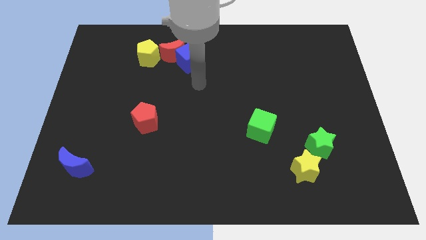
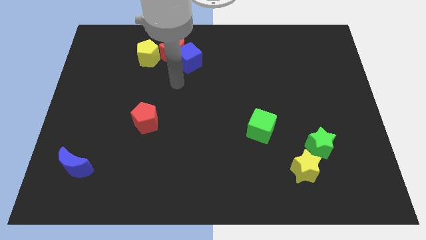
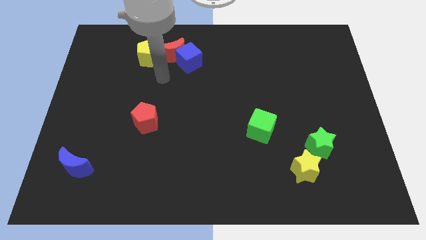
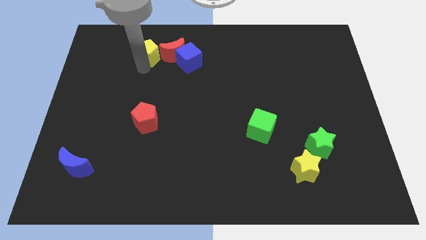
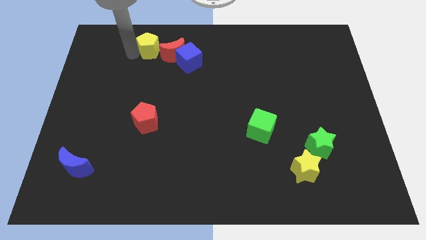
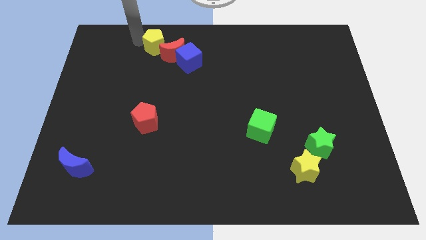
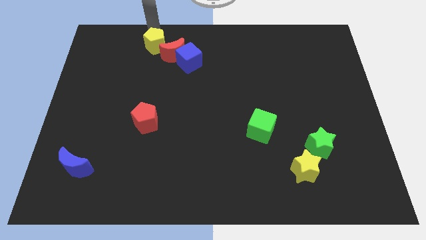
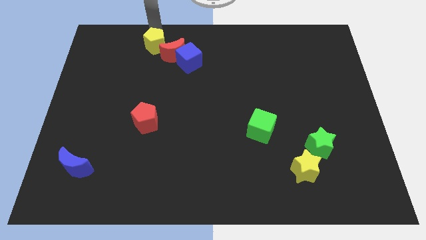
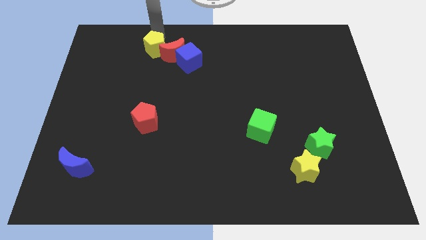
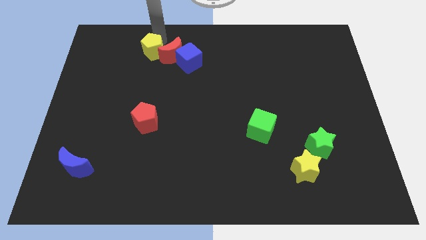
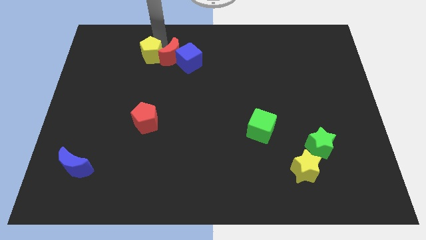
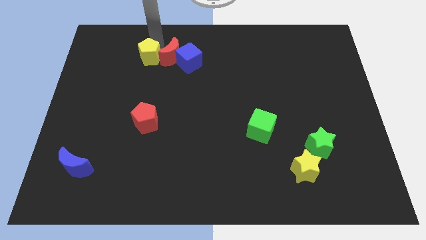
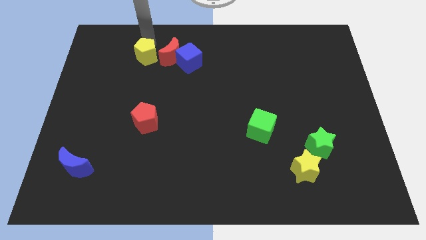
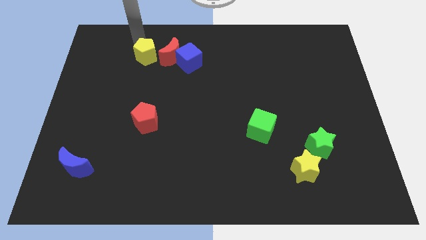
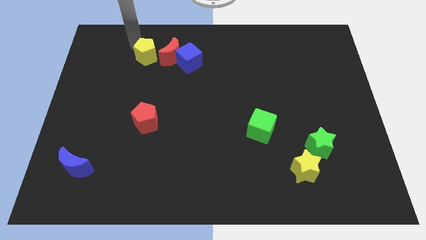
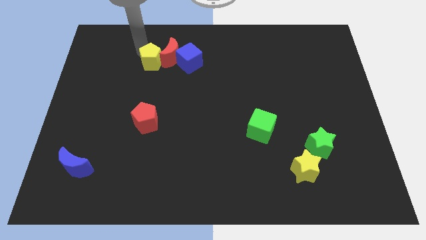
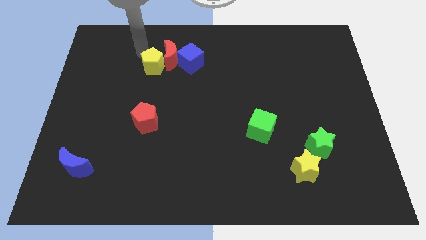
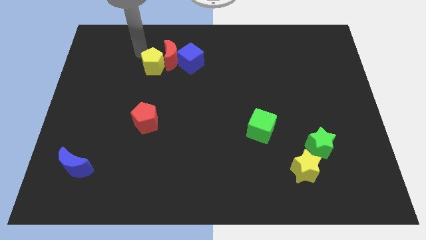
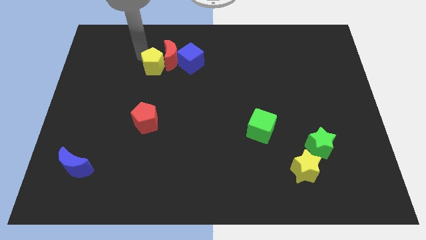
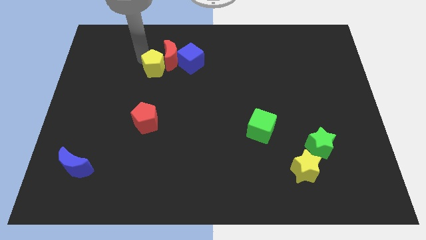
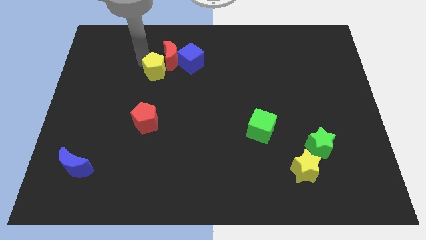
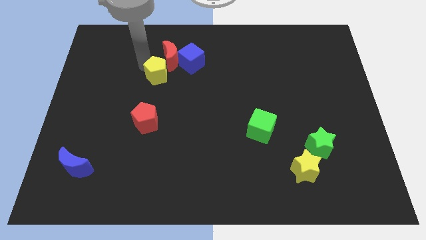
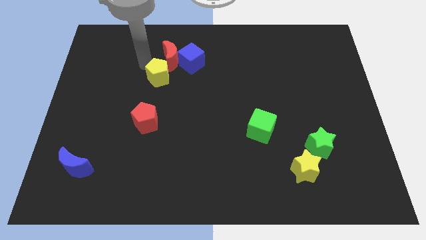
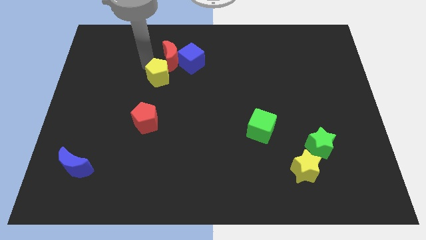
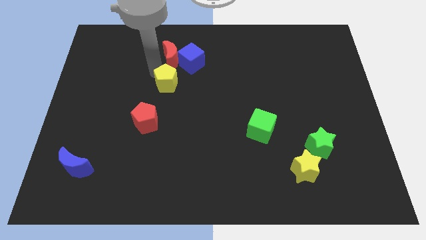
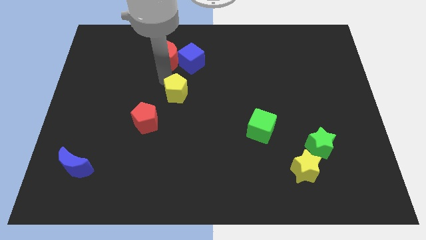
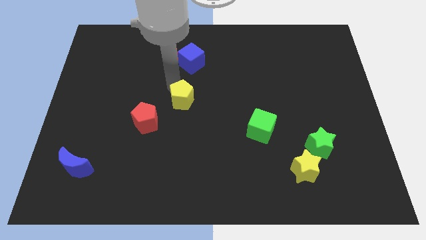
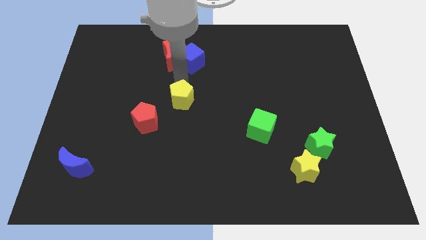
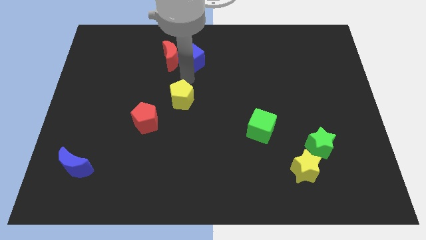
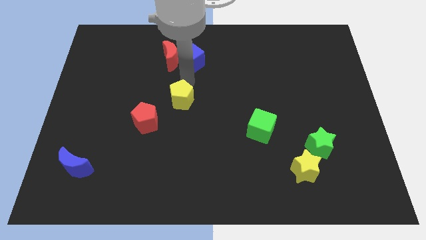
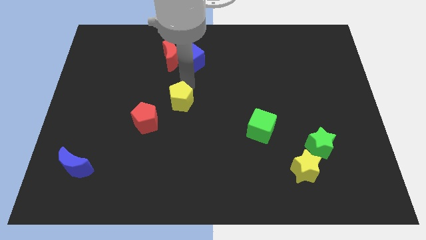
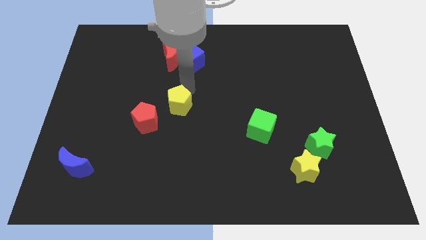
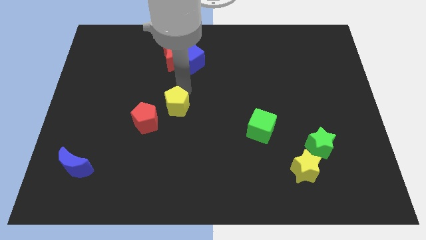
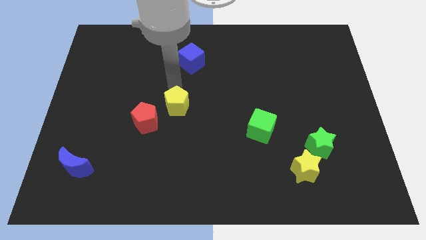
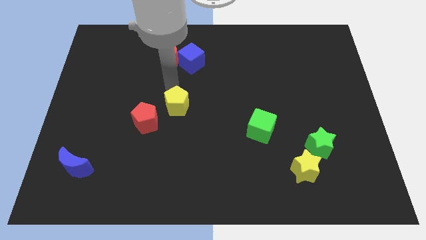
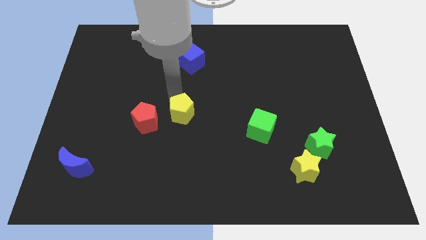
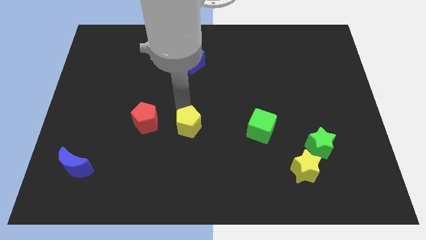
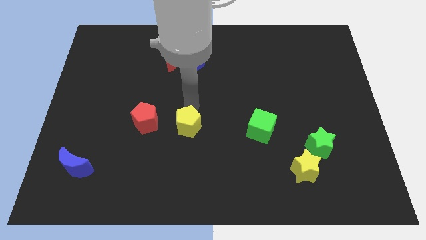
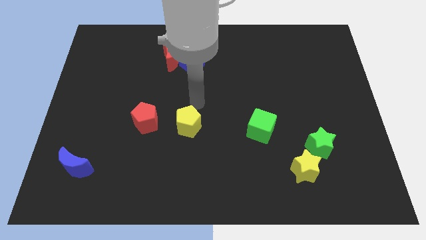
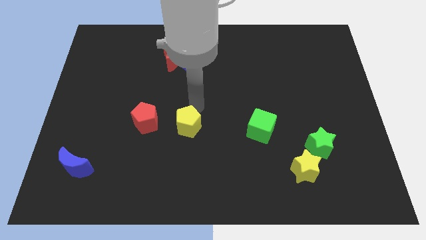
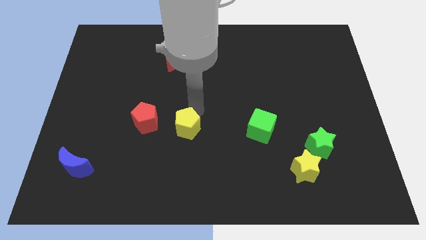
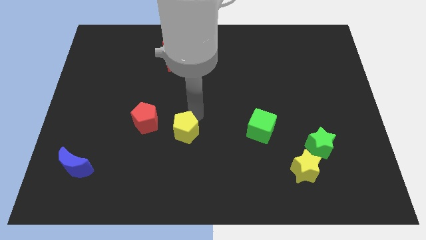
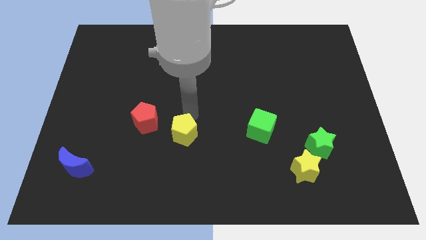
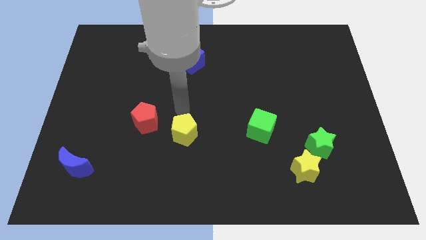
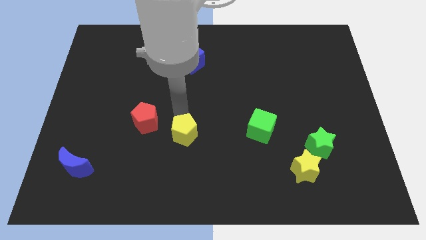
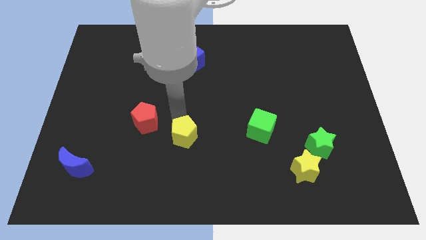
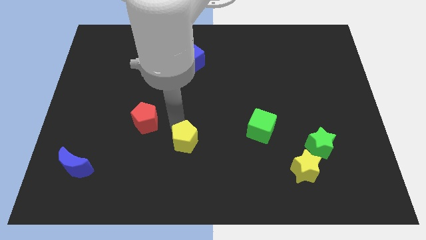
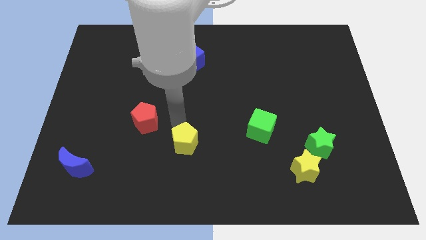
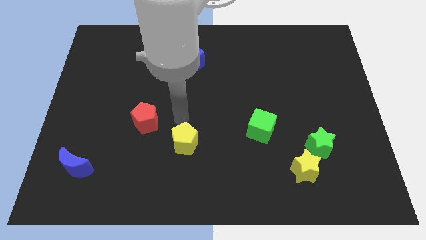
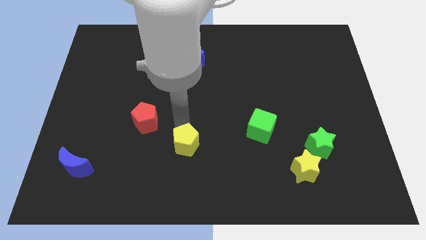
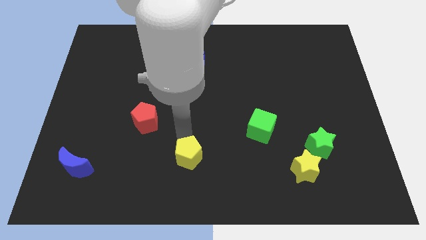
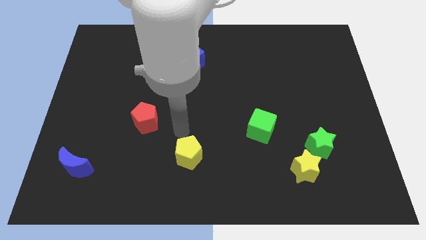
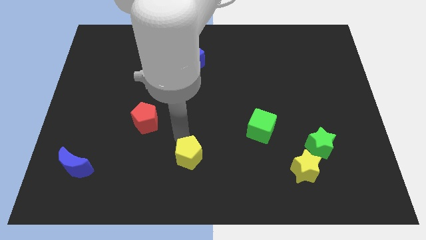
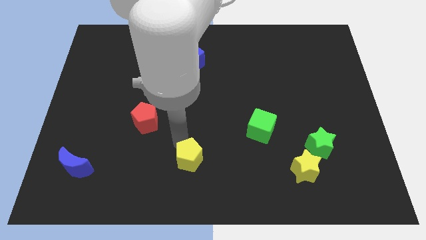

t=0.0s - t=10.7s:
slide the yellow pentagon to the bottom

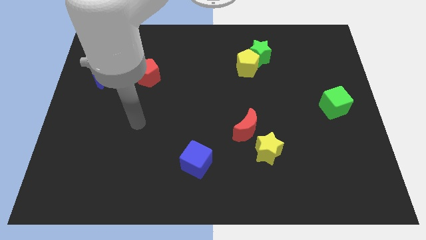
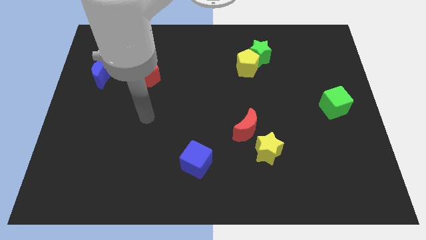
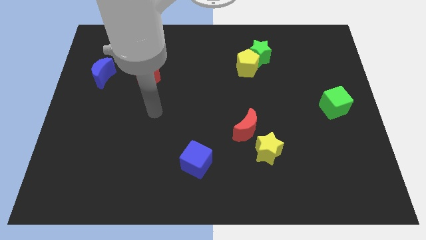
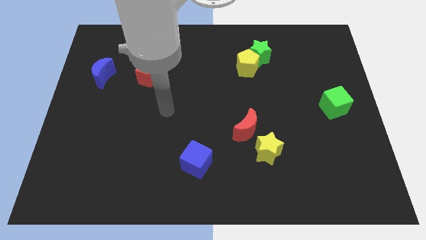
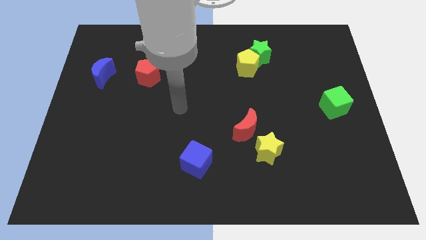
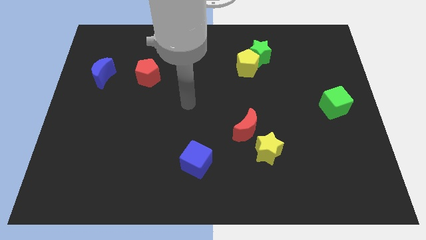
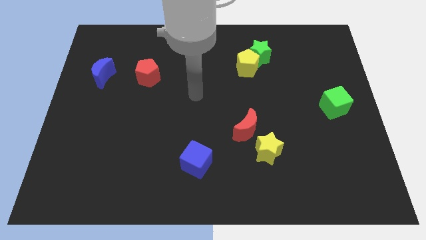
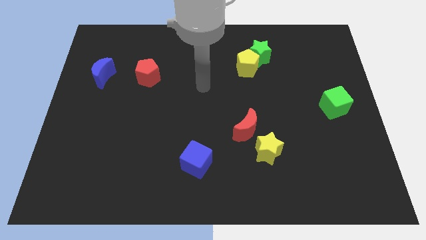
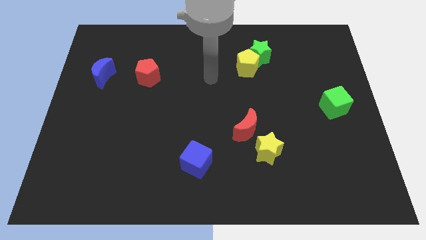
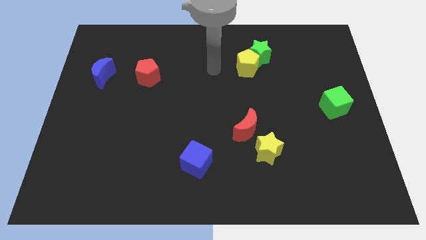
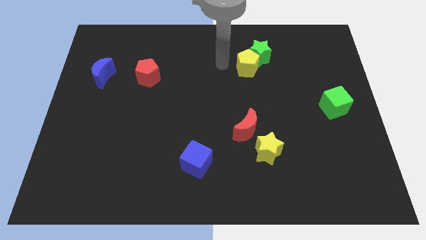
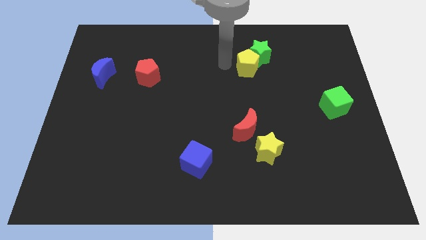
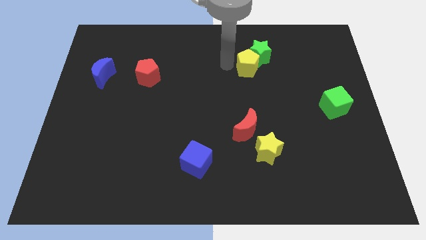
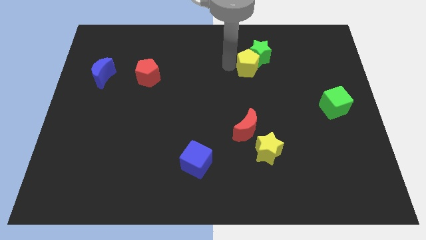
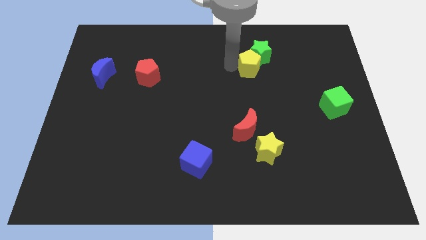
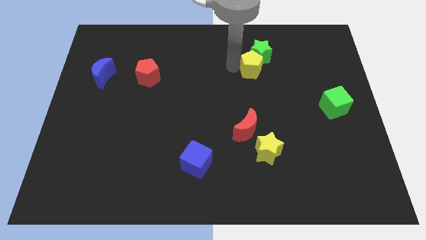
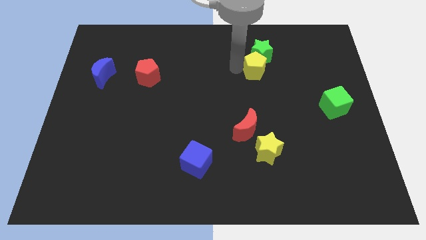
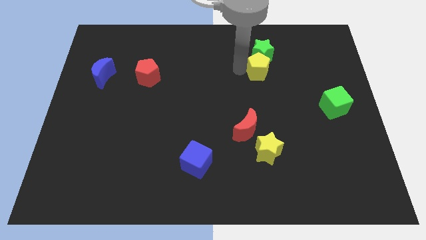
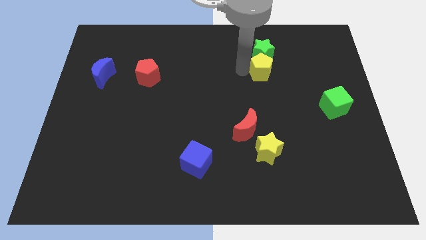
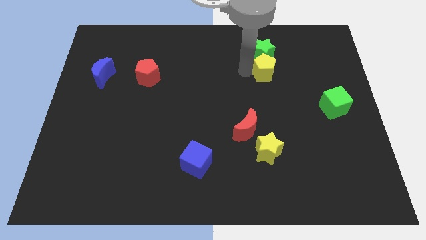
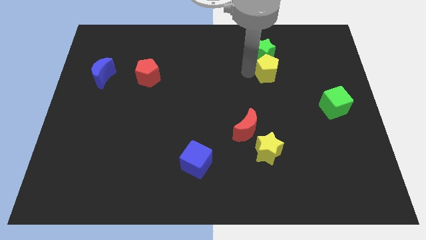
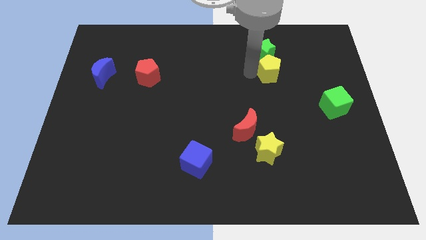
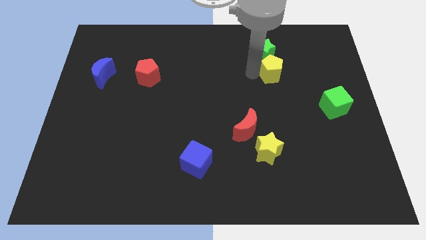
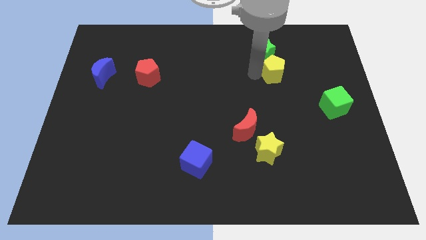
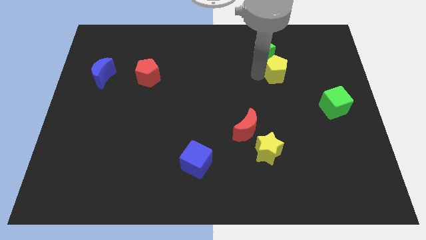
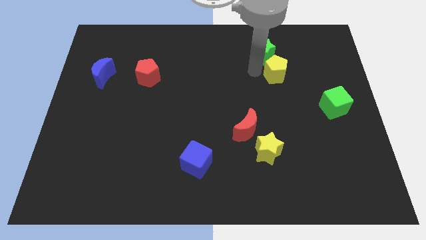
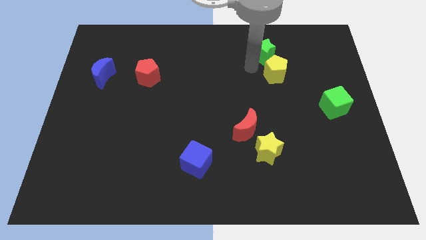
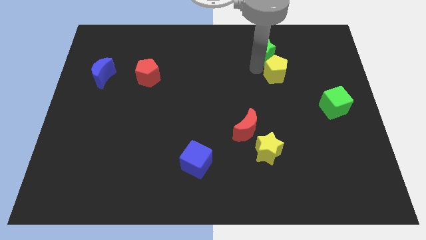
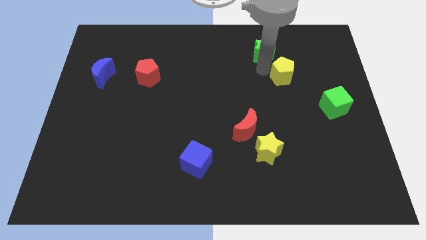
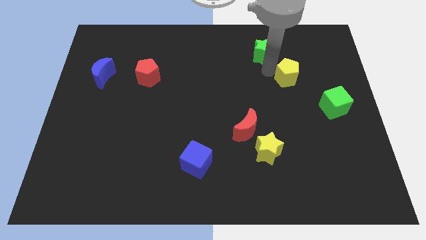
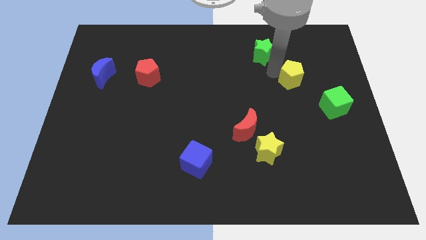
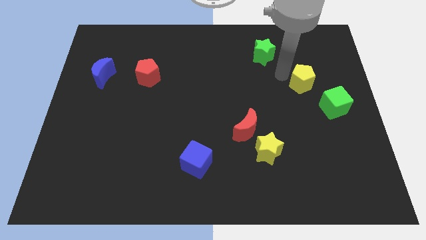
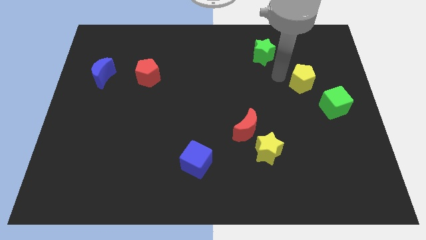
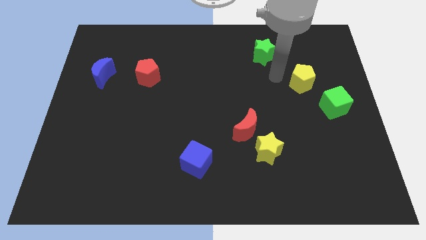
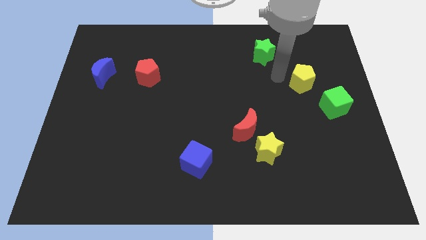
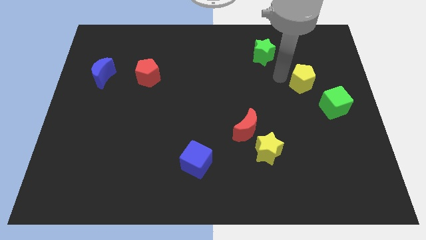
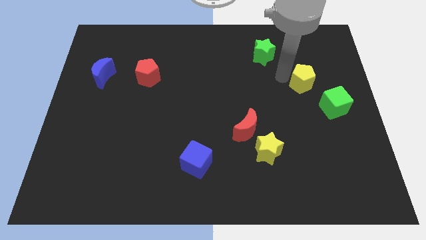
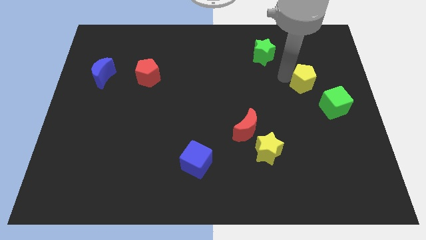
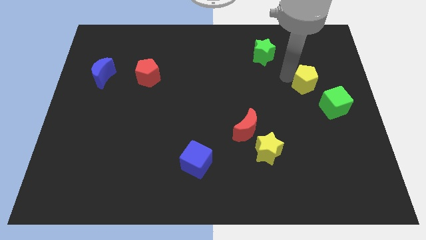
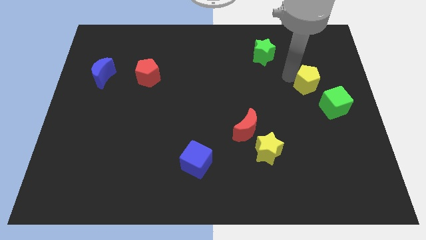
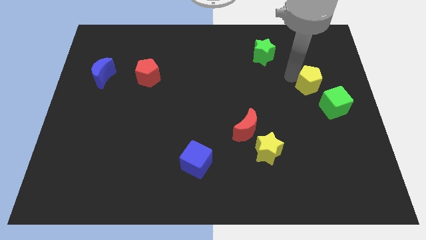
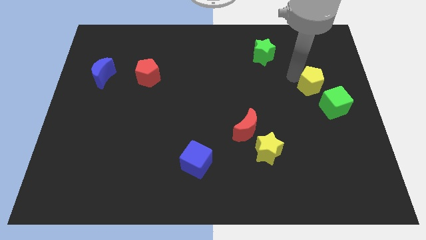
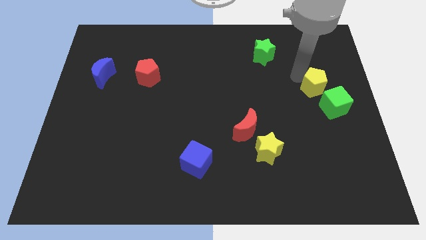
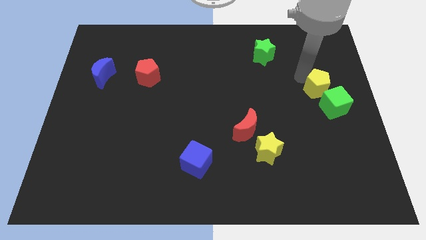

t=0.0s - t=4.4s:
move the yellow pentagon to the right side of the board
